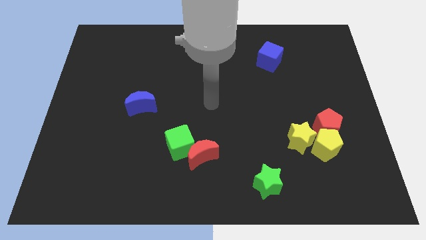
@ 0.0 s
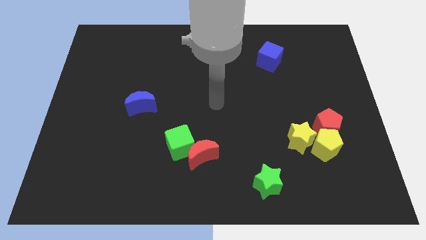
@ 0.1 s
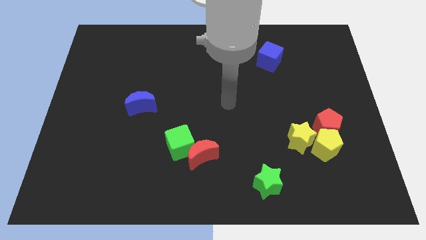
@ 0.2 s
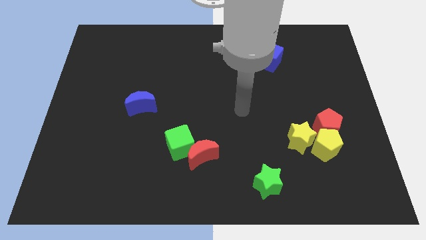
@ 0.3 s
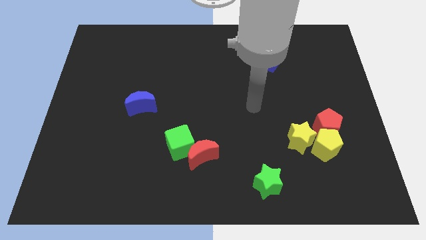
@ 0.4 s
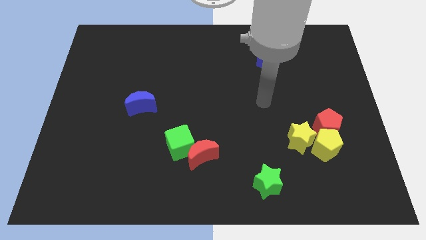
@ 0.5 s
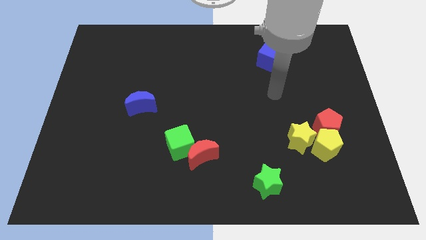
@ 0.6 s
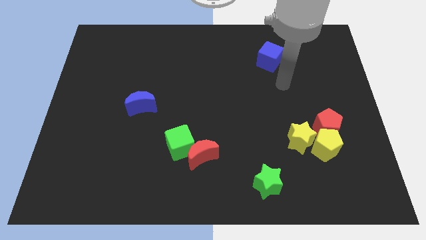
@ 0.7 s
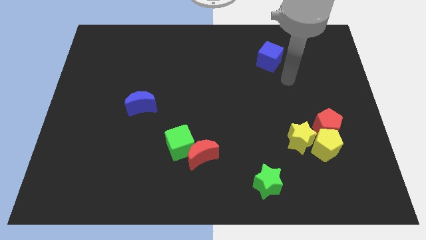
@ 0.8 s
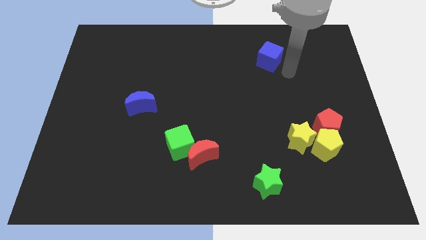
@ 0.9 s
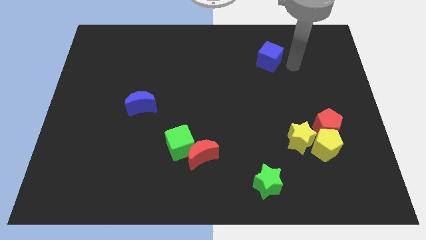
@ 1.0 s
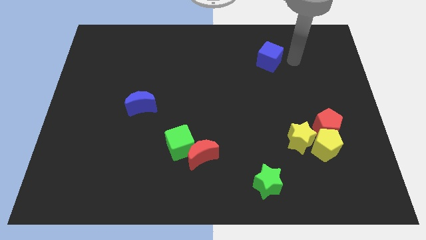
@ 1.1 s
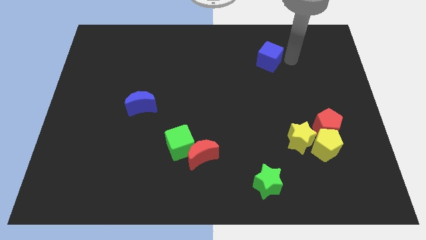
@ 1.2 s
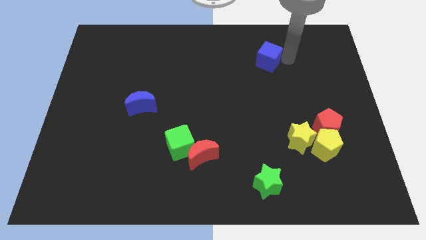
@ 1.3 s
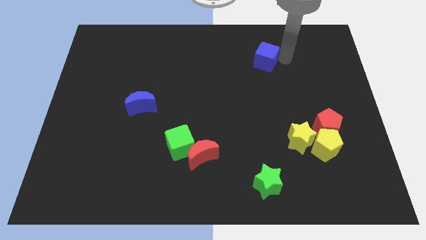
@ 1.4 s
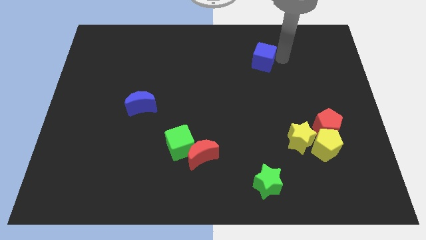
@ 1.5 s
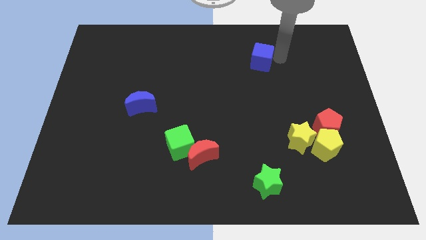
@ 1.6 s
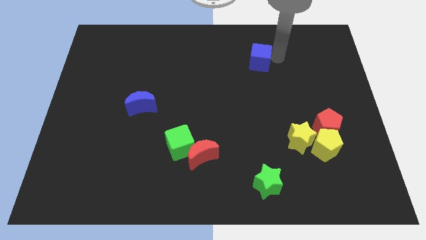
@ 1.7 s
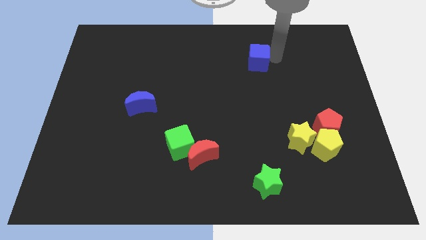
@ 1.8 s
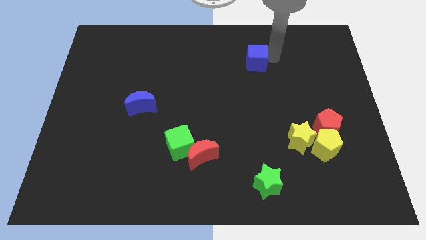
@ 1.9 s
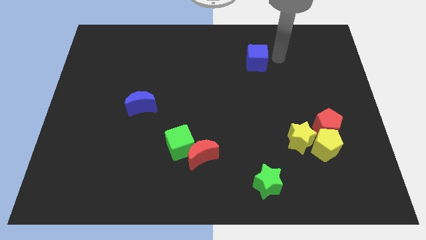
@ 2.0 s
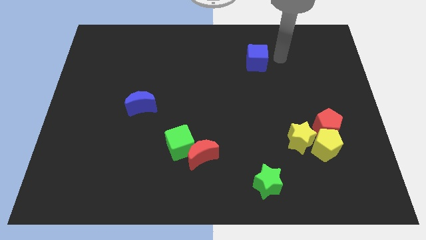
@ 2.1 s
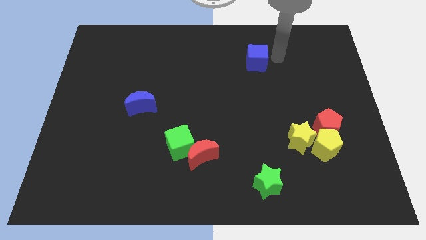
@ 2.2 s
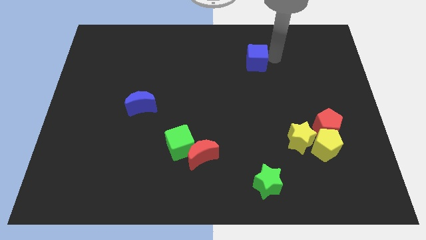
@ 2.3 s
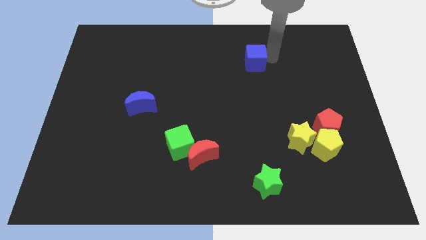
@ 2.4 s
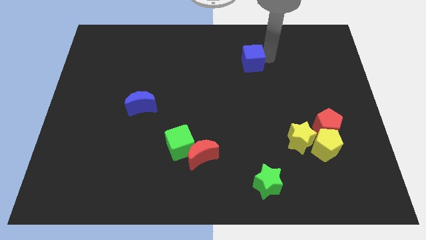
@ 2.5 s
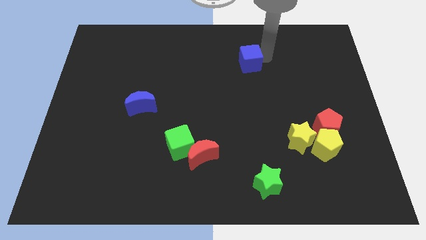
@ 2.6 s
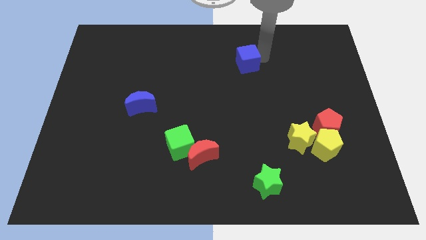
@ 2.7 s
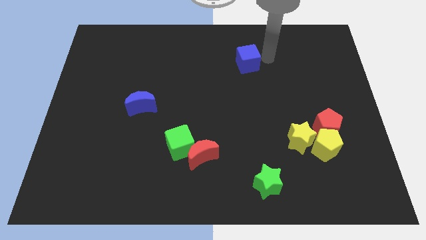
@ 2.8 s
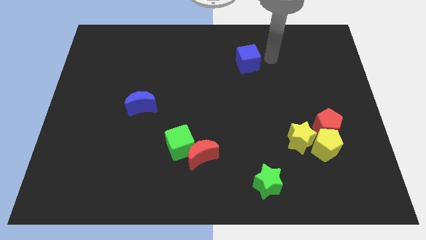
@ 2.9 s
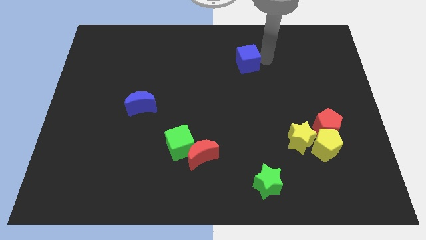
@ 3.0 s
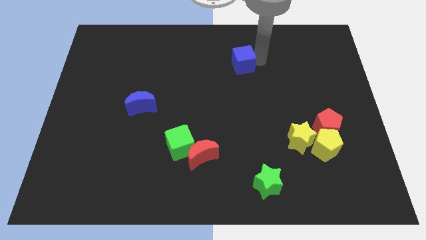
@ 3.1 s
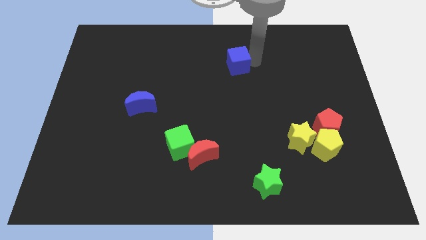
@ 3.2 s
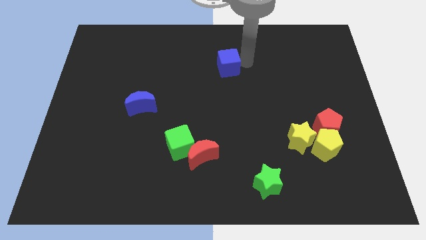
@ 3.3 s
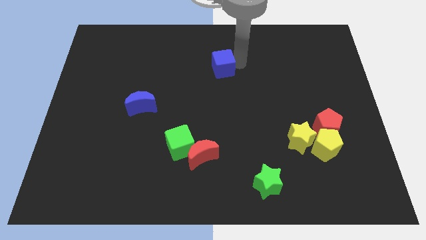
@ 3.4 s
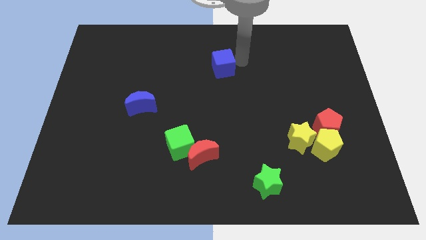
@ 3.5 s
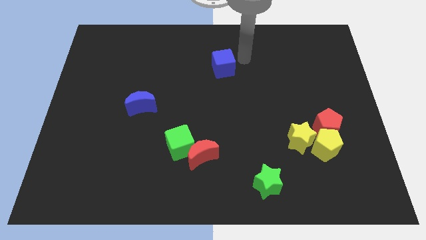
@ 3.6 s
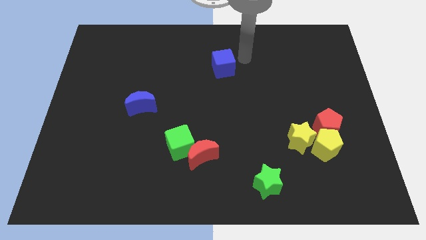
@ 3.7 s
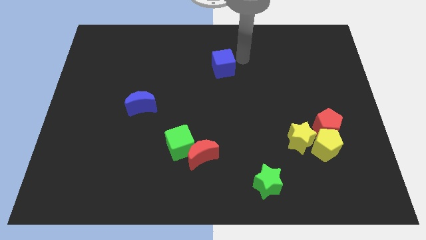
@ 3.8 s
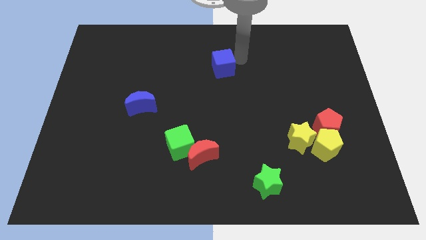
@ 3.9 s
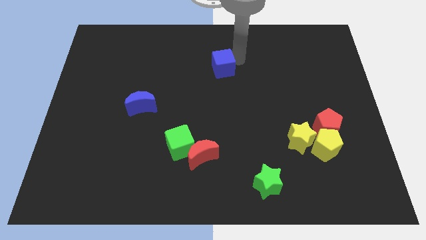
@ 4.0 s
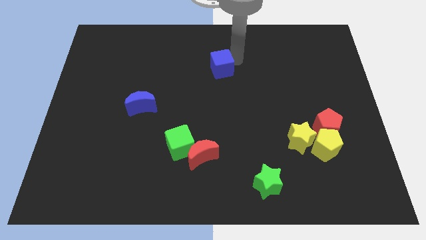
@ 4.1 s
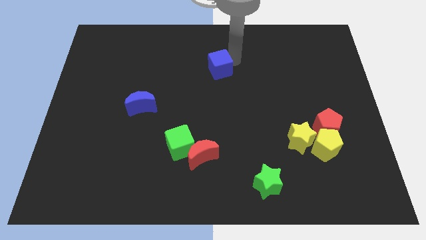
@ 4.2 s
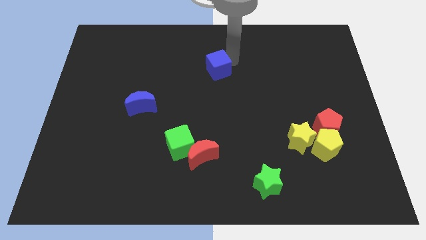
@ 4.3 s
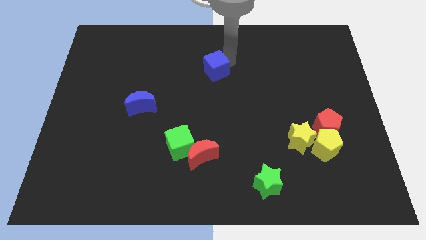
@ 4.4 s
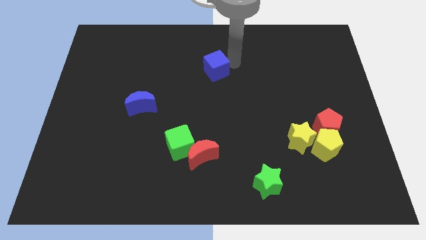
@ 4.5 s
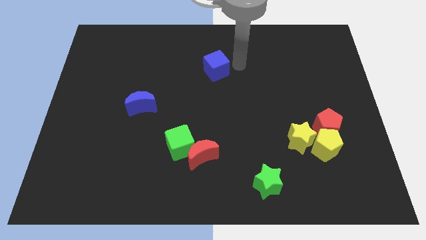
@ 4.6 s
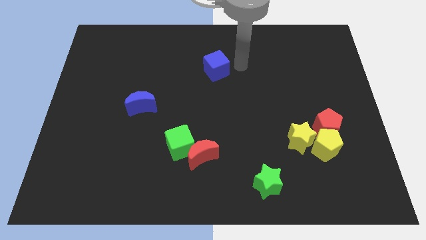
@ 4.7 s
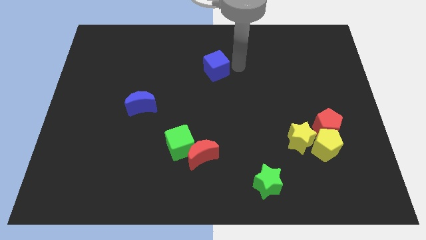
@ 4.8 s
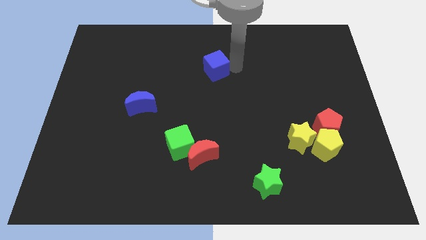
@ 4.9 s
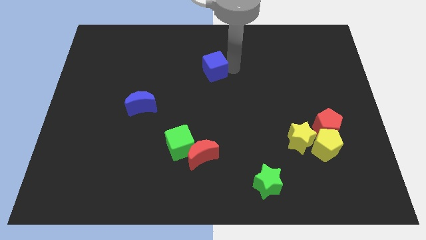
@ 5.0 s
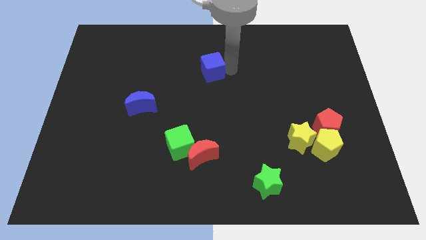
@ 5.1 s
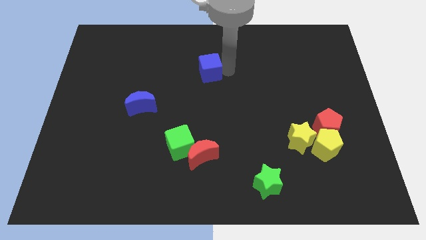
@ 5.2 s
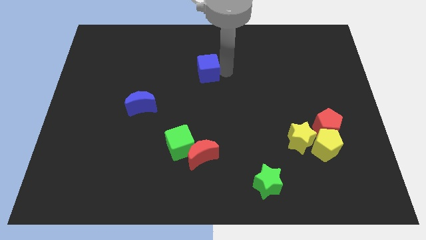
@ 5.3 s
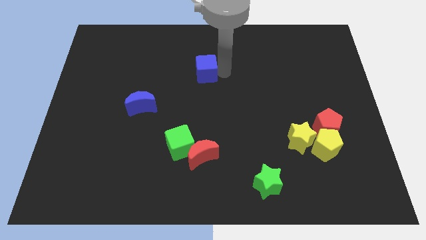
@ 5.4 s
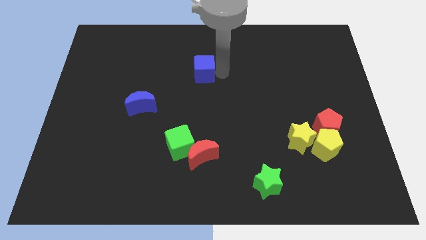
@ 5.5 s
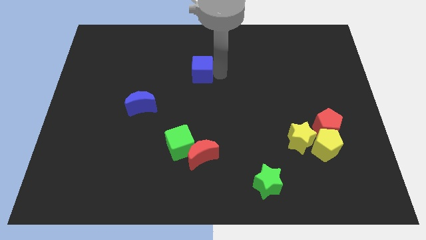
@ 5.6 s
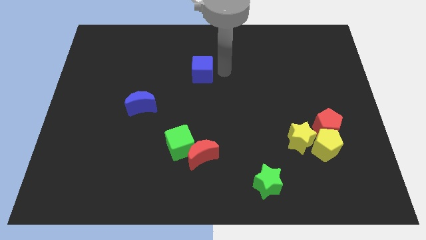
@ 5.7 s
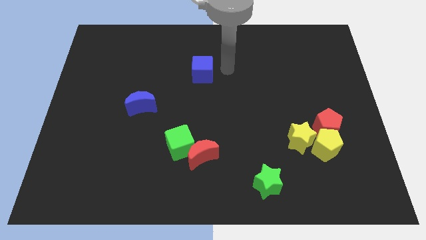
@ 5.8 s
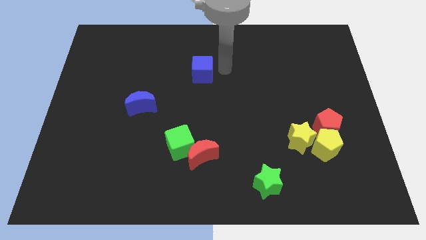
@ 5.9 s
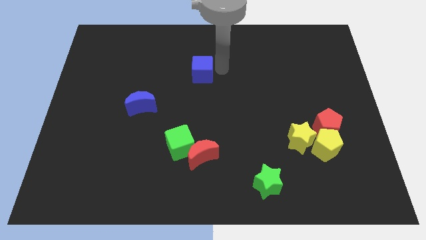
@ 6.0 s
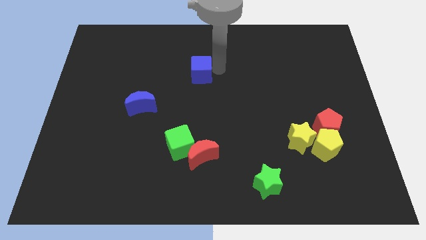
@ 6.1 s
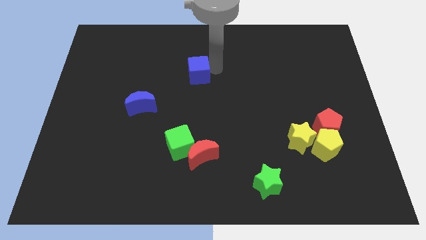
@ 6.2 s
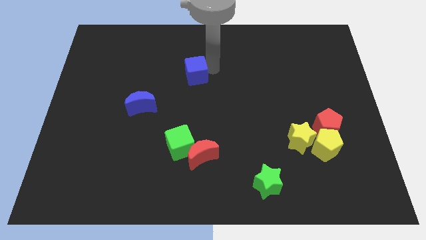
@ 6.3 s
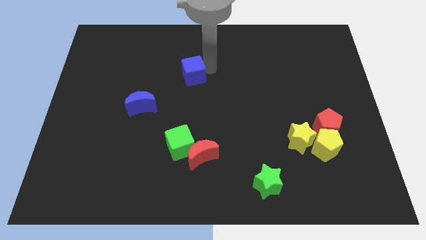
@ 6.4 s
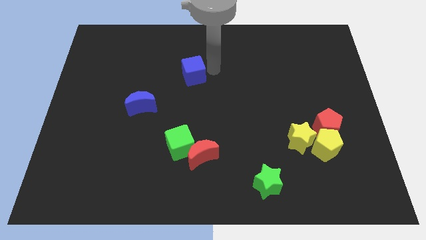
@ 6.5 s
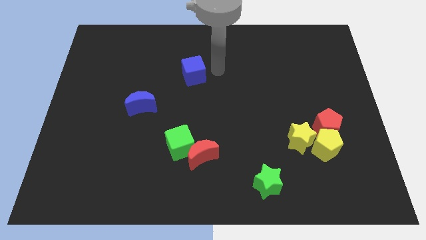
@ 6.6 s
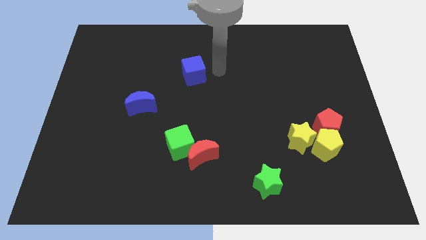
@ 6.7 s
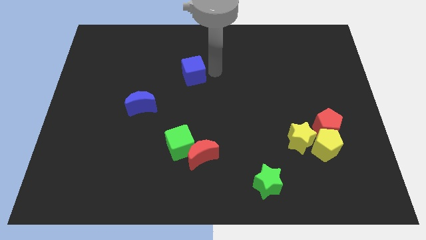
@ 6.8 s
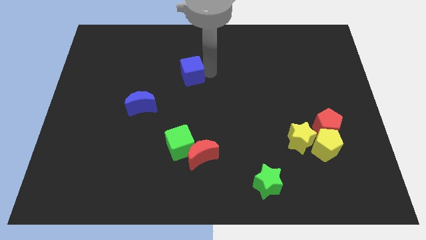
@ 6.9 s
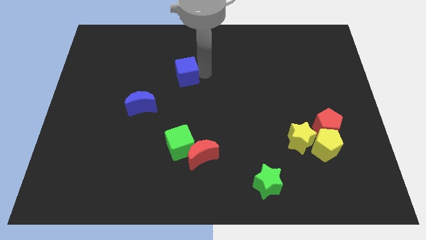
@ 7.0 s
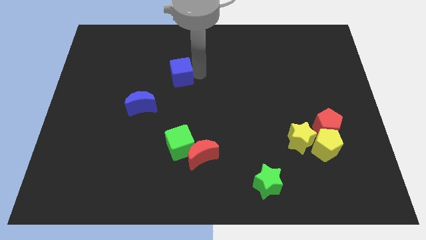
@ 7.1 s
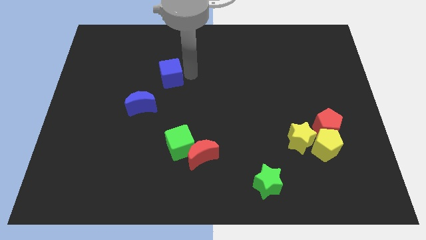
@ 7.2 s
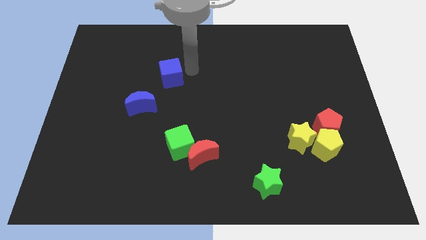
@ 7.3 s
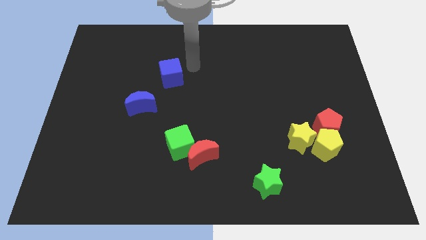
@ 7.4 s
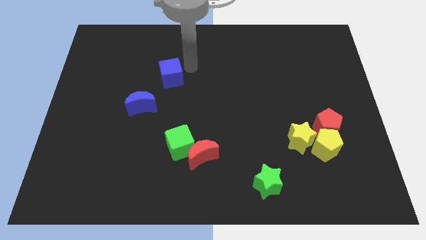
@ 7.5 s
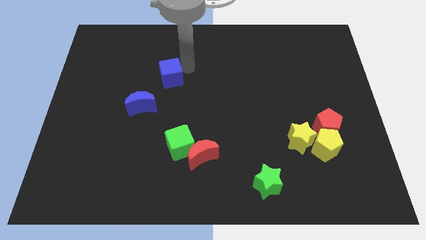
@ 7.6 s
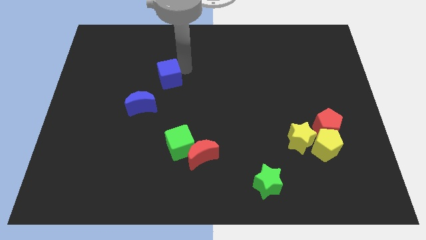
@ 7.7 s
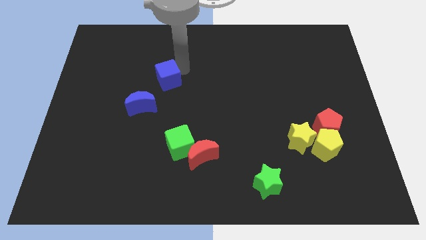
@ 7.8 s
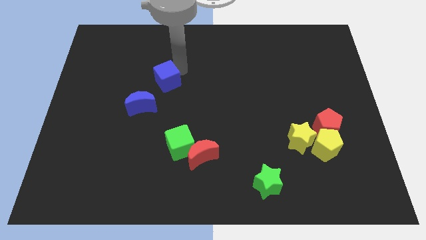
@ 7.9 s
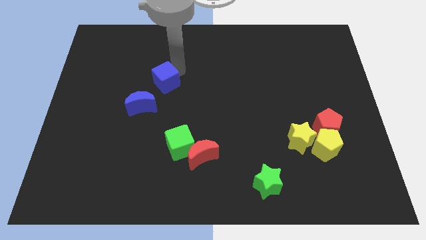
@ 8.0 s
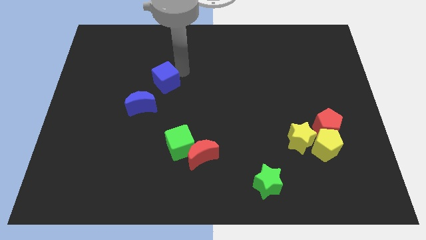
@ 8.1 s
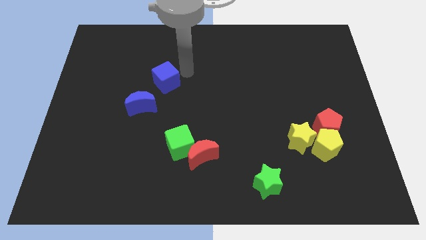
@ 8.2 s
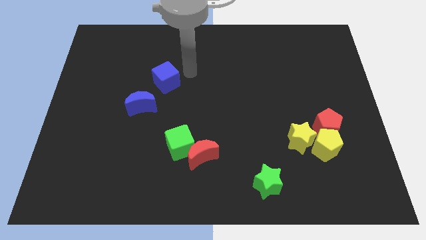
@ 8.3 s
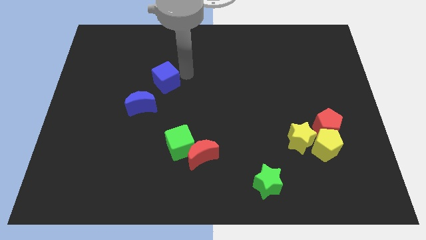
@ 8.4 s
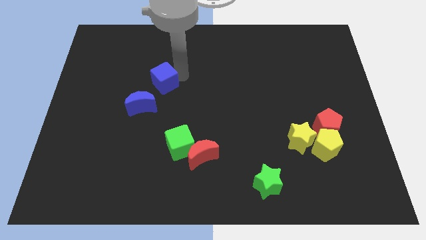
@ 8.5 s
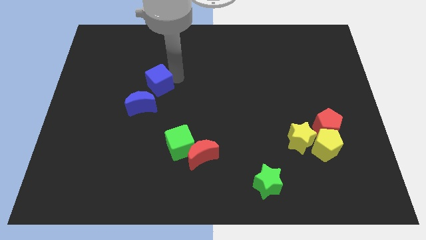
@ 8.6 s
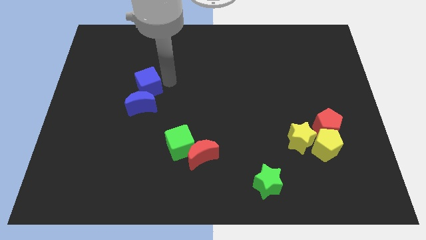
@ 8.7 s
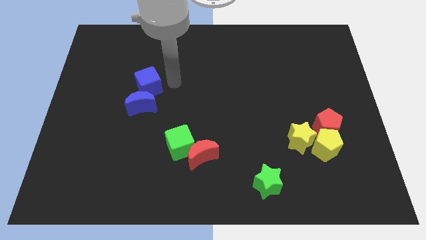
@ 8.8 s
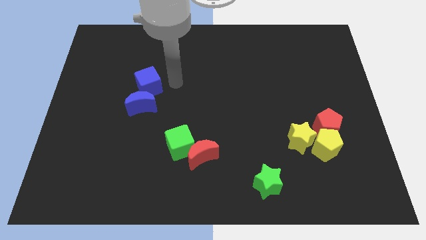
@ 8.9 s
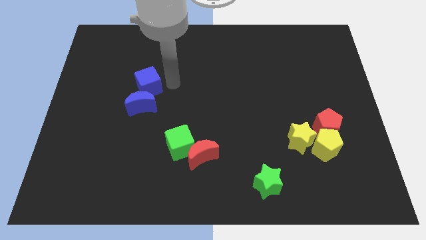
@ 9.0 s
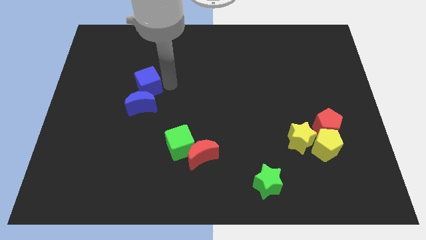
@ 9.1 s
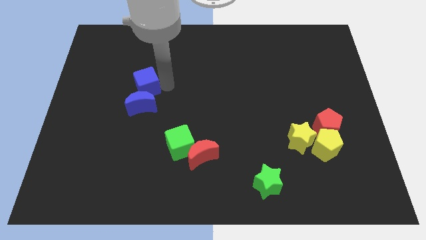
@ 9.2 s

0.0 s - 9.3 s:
slide the blue cube to the top left side of the blue moon
